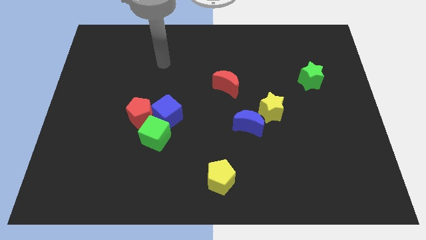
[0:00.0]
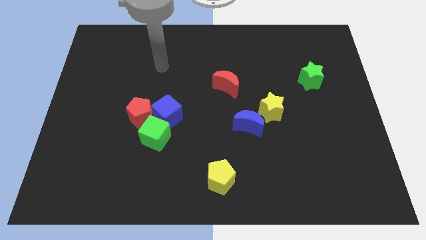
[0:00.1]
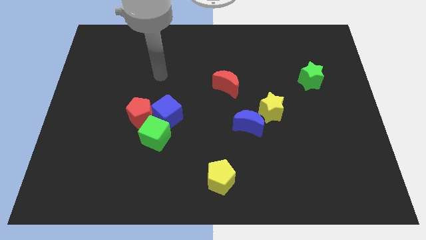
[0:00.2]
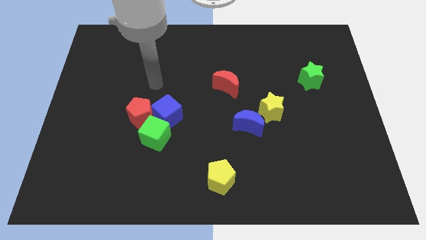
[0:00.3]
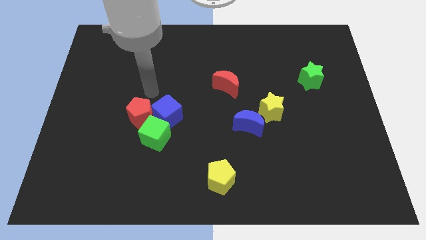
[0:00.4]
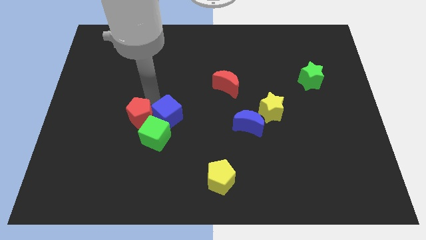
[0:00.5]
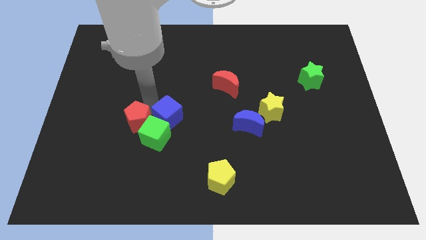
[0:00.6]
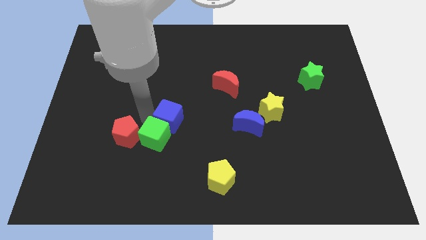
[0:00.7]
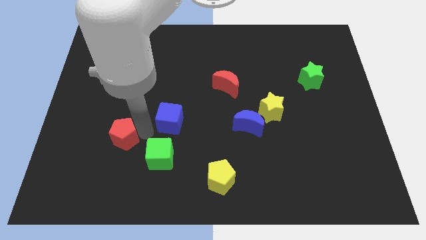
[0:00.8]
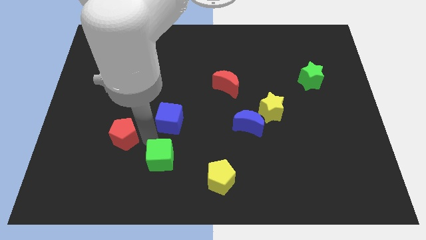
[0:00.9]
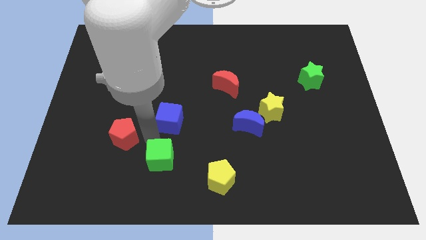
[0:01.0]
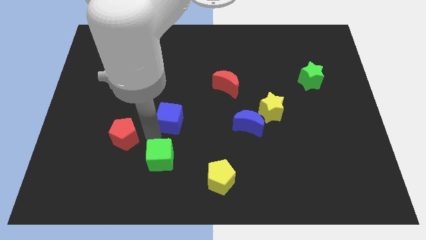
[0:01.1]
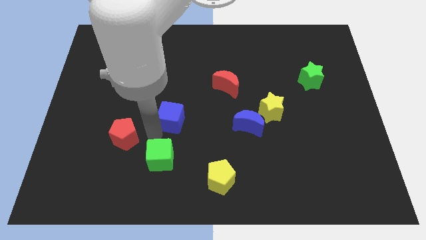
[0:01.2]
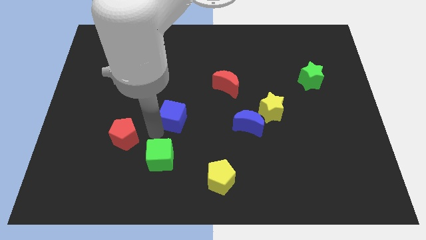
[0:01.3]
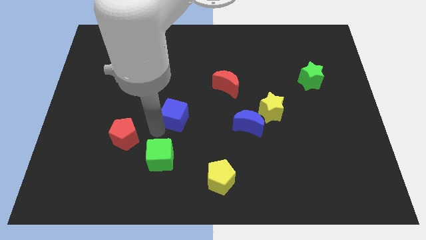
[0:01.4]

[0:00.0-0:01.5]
move the blue cube away from the red pentagon and green cube

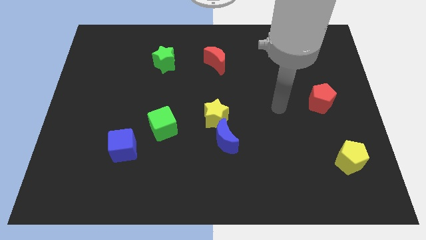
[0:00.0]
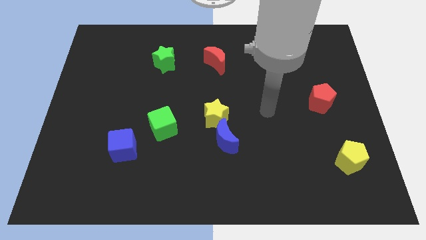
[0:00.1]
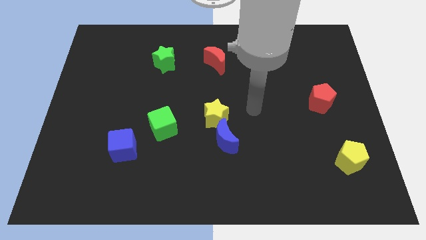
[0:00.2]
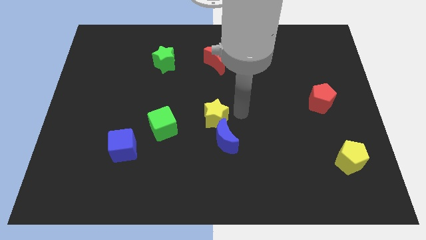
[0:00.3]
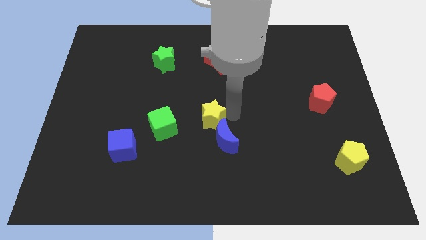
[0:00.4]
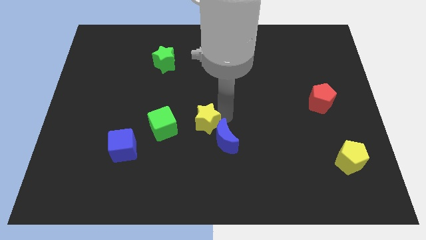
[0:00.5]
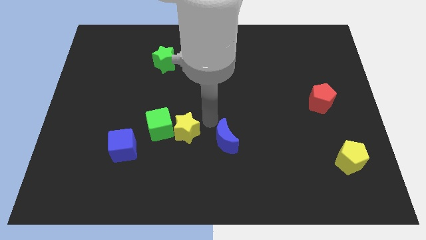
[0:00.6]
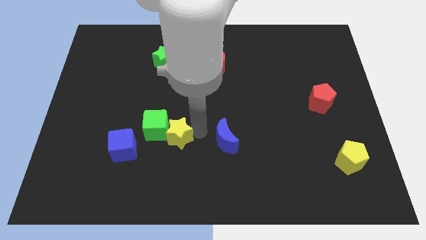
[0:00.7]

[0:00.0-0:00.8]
move the blue moon away from the yellow star

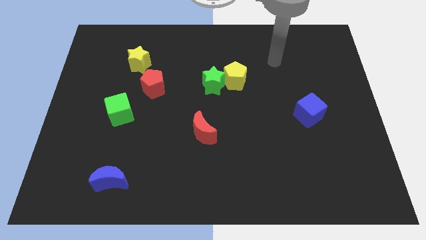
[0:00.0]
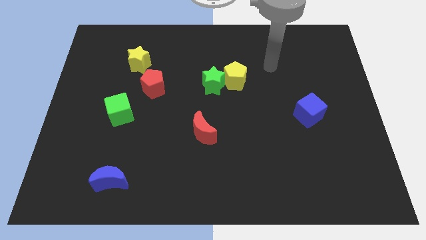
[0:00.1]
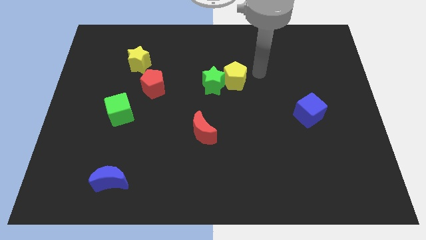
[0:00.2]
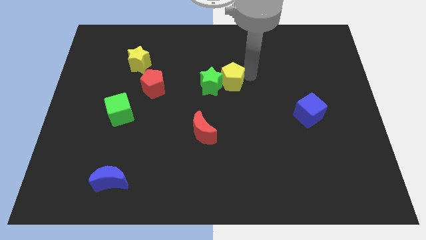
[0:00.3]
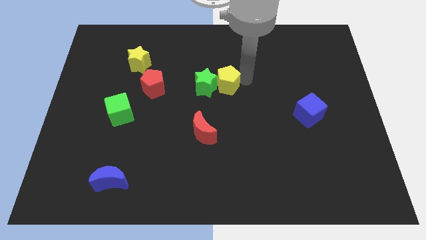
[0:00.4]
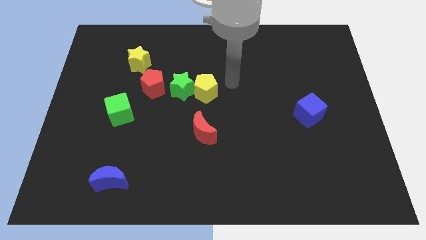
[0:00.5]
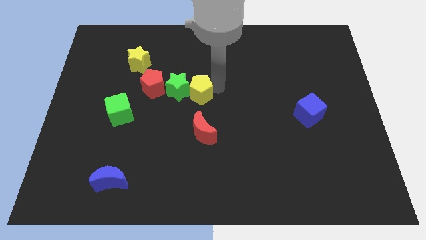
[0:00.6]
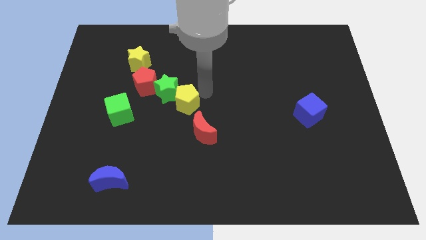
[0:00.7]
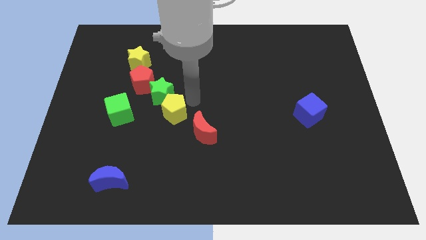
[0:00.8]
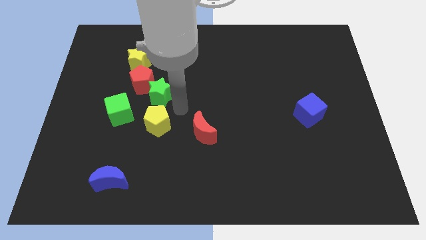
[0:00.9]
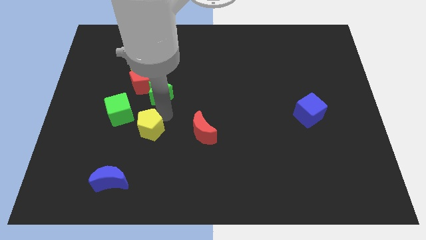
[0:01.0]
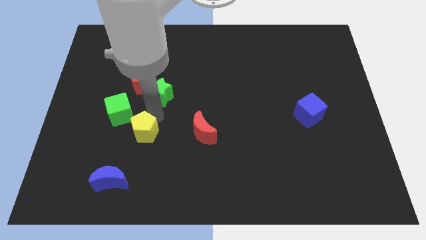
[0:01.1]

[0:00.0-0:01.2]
separate the green star from the yellow pentagon

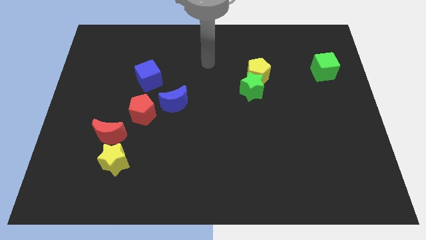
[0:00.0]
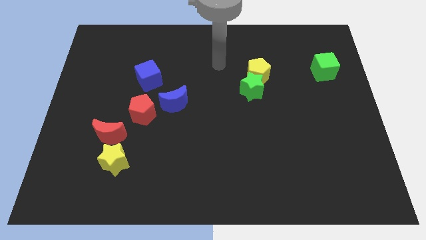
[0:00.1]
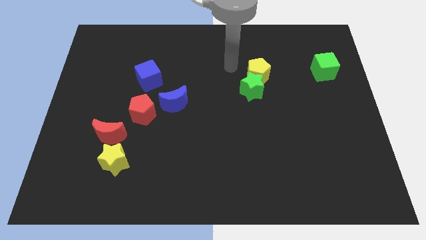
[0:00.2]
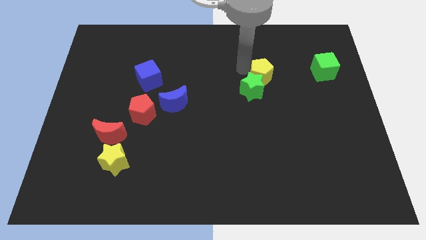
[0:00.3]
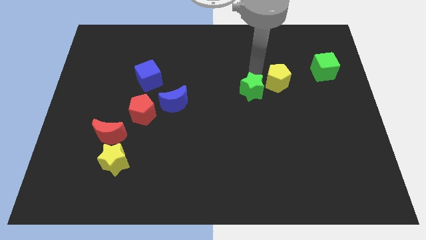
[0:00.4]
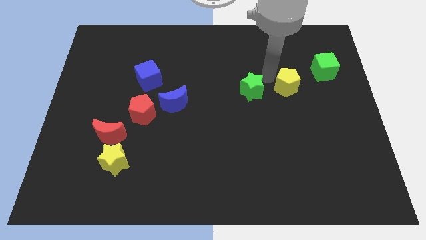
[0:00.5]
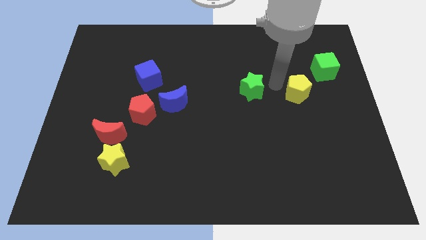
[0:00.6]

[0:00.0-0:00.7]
move the green star away from the yellow pentagon

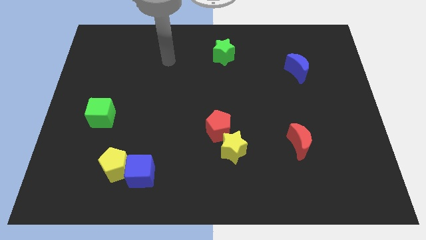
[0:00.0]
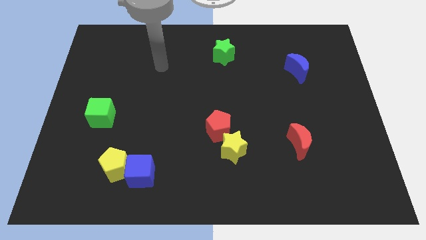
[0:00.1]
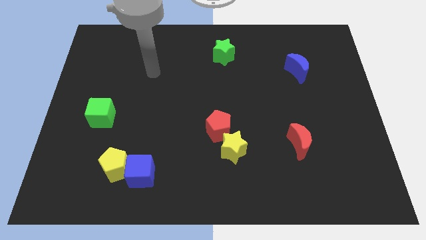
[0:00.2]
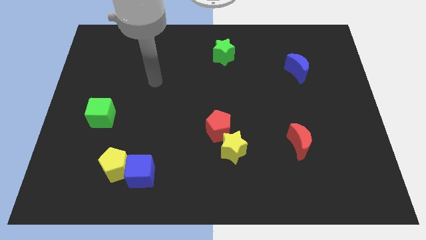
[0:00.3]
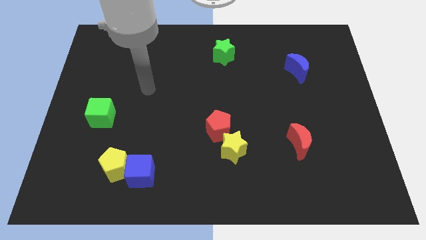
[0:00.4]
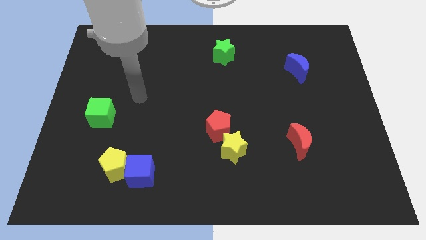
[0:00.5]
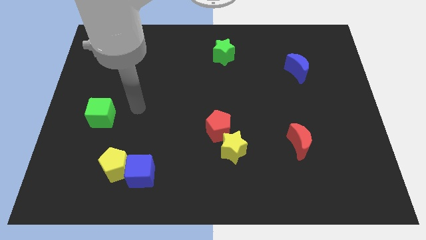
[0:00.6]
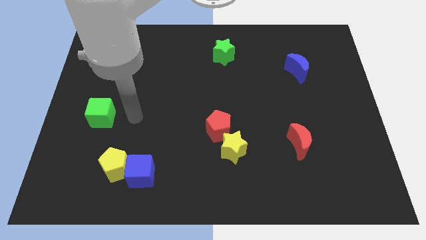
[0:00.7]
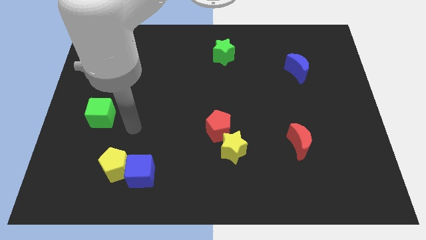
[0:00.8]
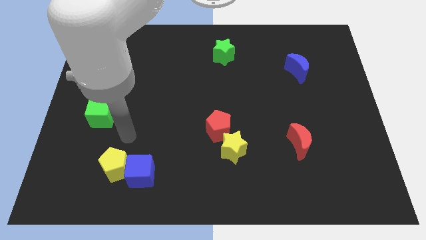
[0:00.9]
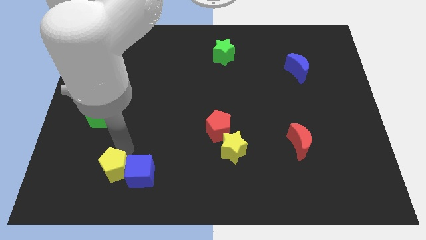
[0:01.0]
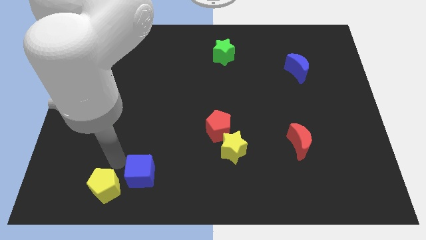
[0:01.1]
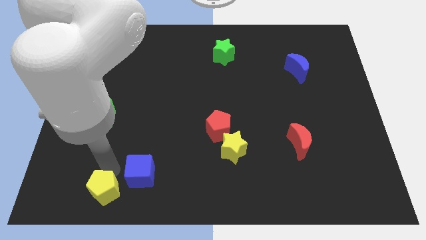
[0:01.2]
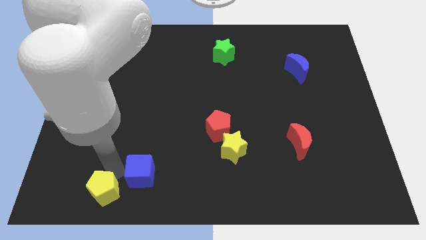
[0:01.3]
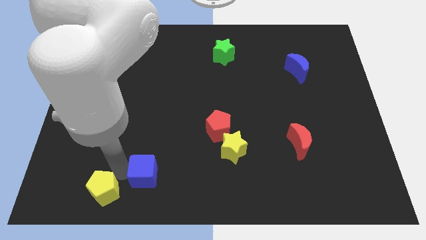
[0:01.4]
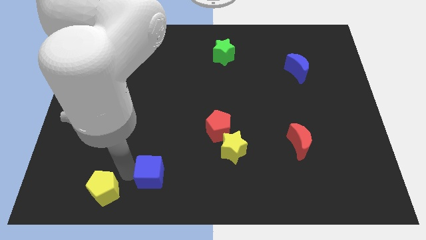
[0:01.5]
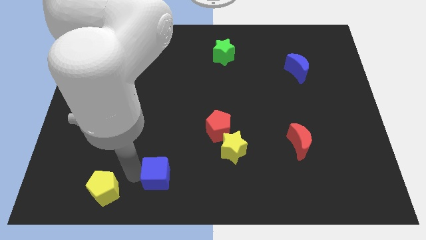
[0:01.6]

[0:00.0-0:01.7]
separate the blue cube from the yellow pentagon

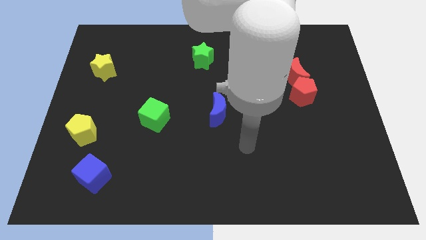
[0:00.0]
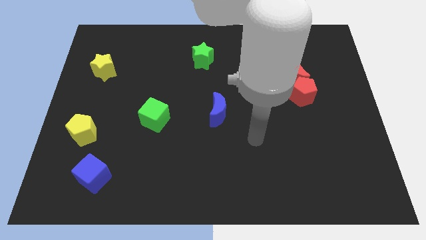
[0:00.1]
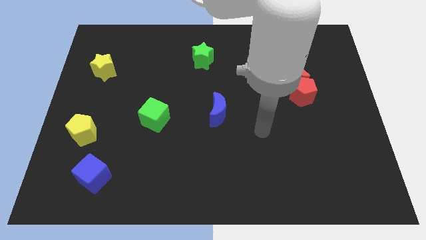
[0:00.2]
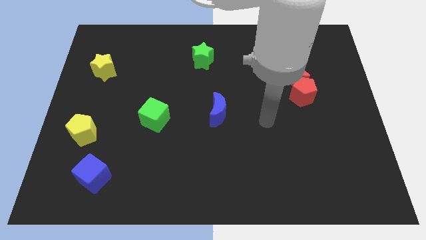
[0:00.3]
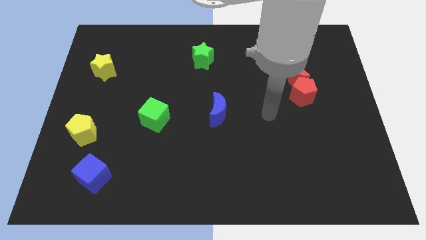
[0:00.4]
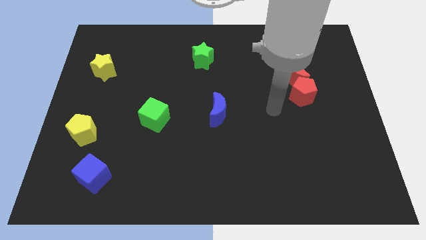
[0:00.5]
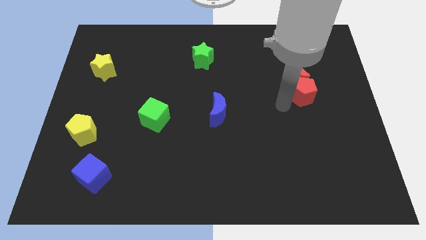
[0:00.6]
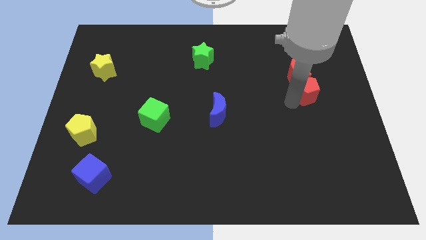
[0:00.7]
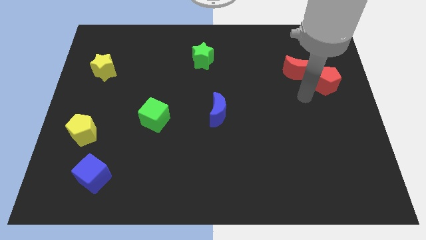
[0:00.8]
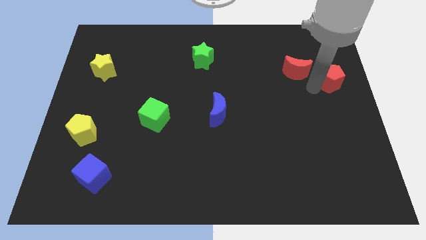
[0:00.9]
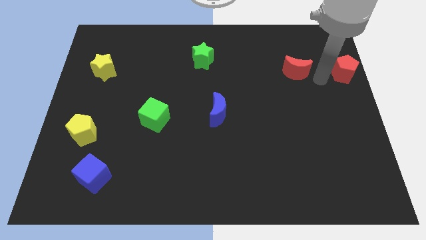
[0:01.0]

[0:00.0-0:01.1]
move the red moon away from the red pentagon

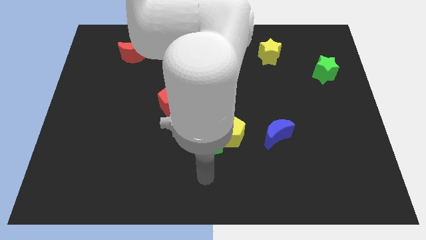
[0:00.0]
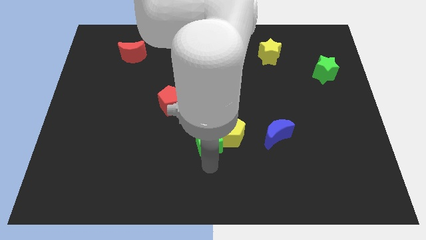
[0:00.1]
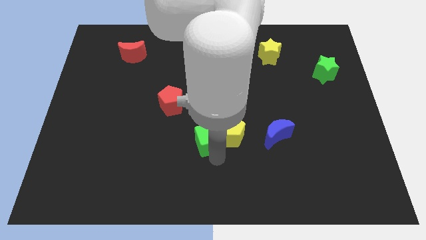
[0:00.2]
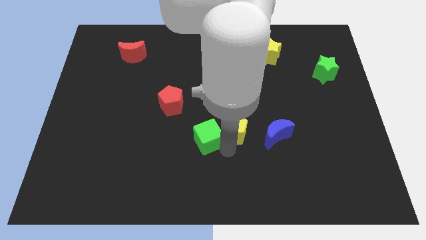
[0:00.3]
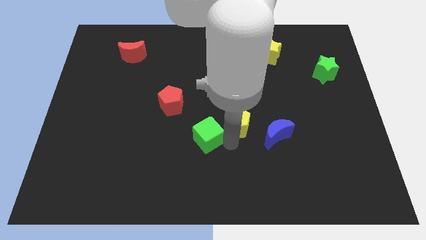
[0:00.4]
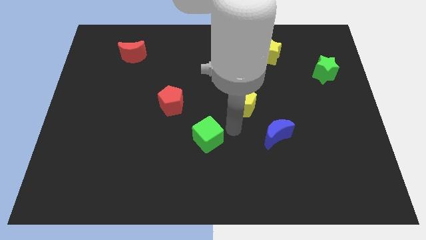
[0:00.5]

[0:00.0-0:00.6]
separate the green cube from the yellow pentagon

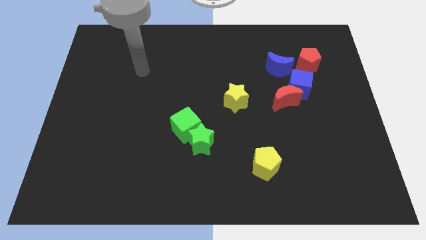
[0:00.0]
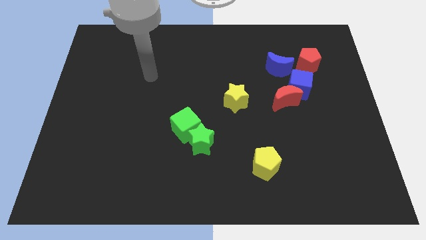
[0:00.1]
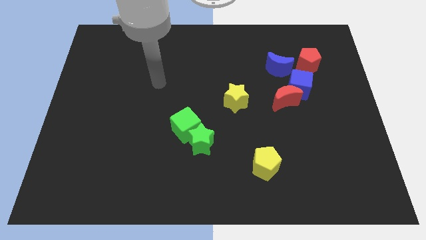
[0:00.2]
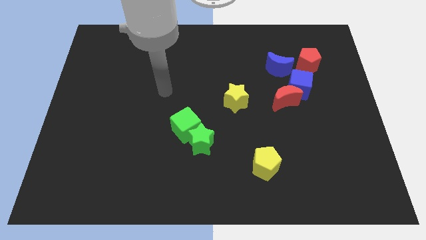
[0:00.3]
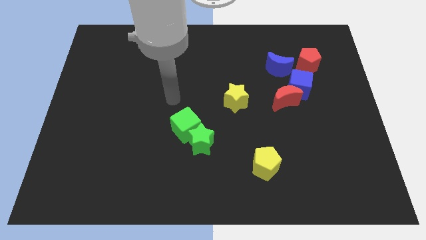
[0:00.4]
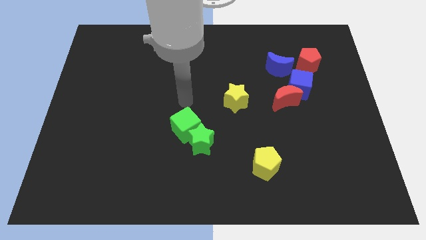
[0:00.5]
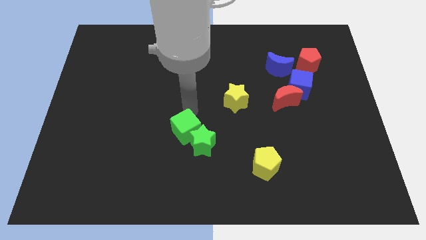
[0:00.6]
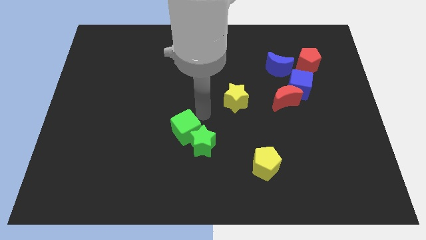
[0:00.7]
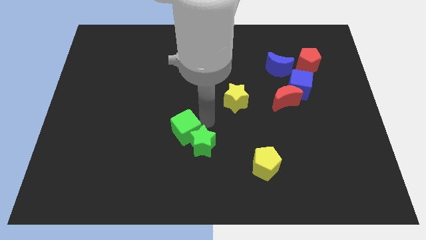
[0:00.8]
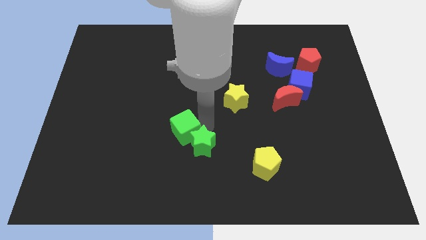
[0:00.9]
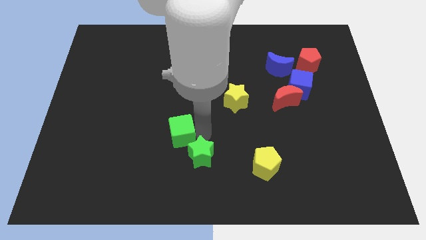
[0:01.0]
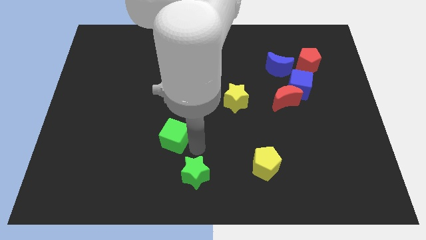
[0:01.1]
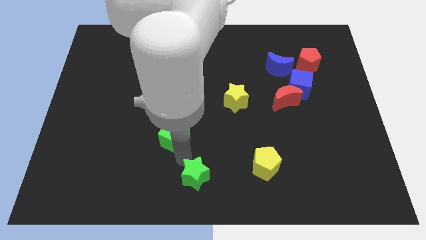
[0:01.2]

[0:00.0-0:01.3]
move the green cube away from the green star

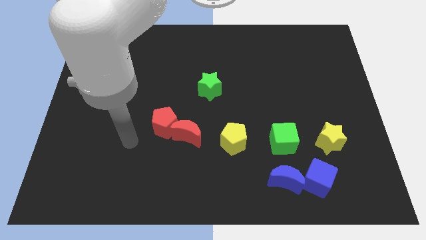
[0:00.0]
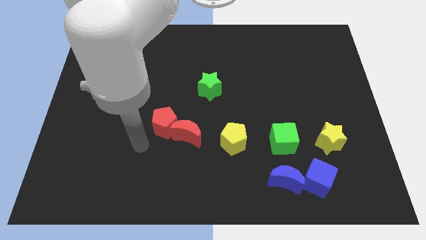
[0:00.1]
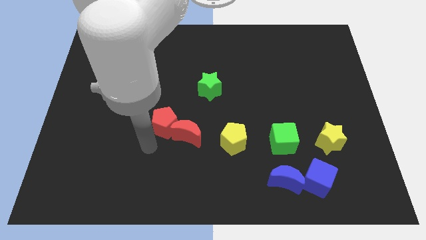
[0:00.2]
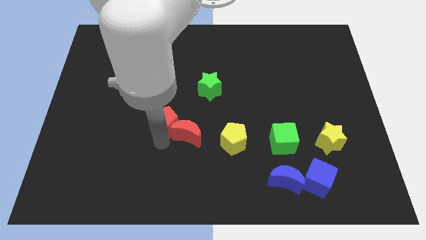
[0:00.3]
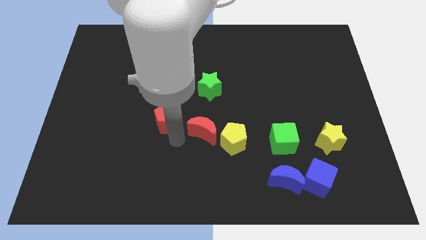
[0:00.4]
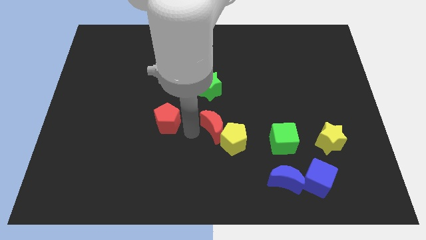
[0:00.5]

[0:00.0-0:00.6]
separate the red pentagon from the red moon
